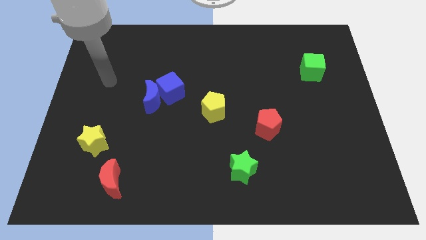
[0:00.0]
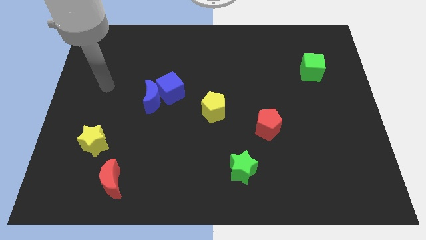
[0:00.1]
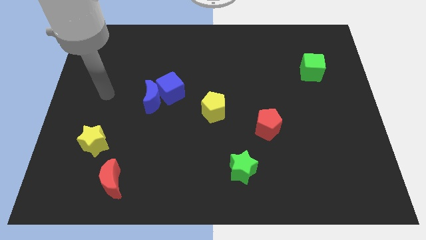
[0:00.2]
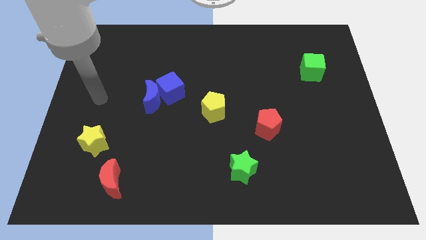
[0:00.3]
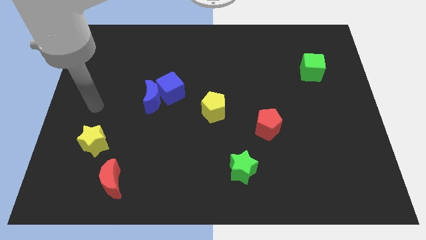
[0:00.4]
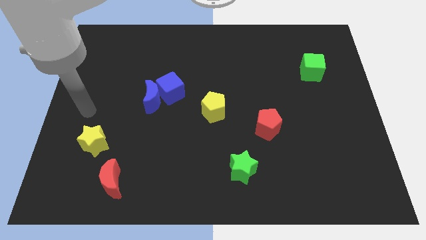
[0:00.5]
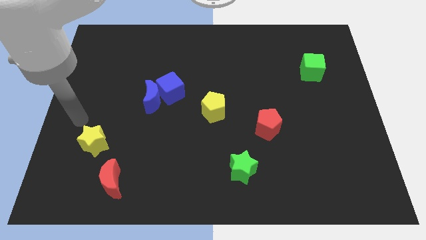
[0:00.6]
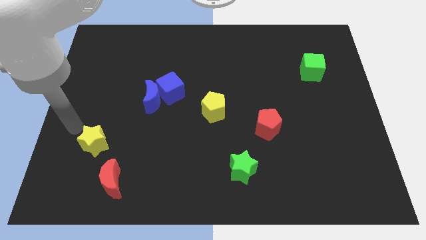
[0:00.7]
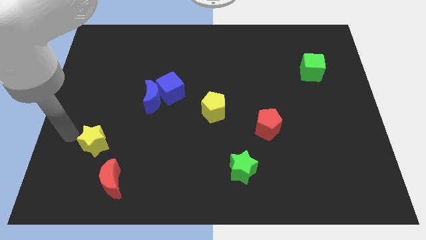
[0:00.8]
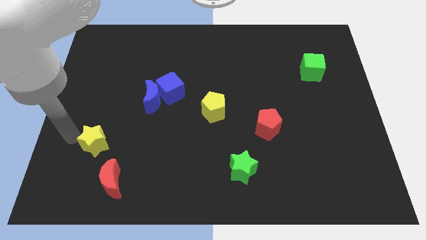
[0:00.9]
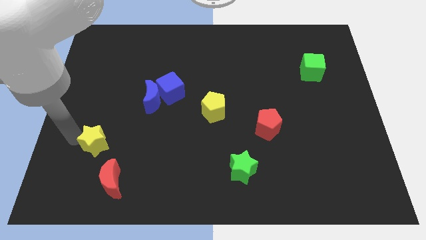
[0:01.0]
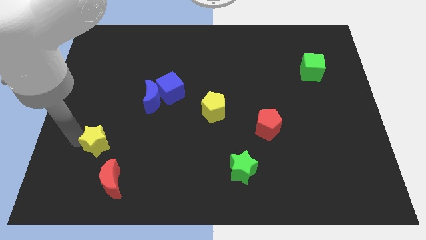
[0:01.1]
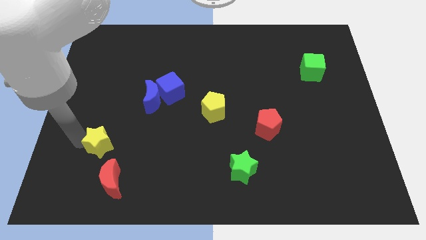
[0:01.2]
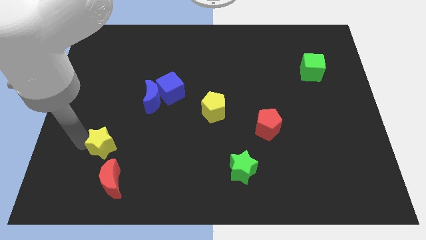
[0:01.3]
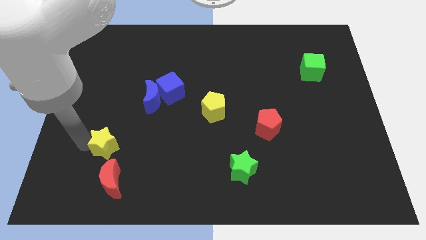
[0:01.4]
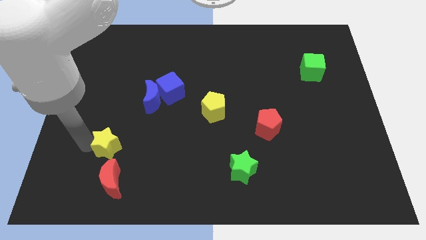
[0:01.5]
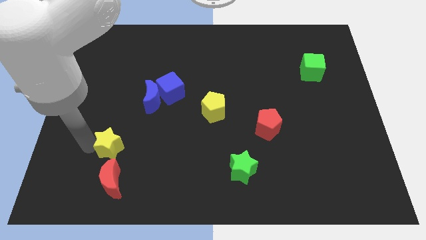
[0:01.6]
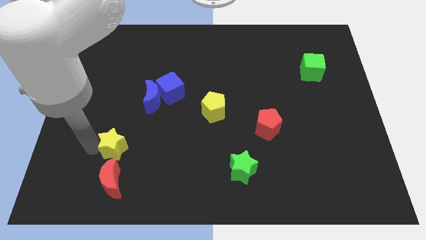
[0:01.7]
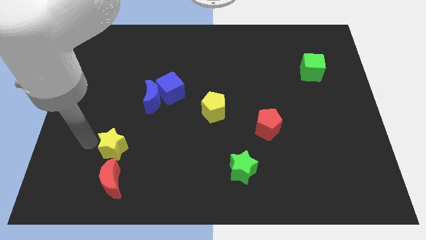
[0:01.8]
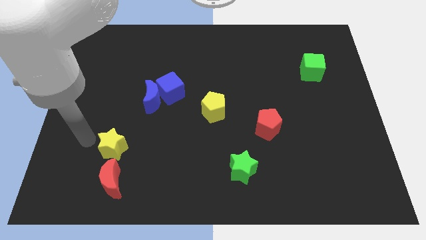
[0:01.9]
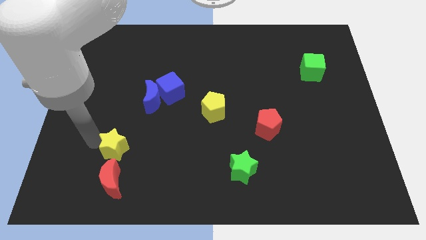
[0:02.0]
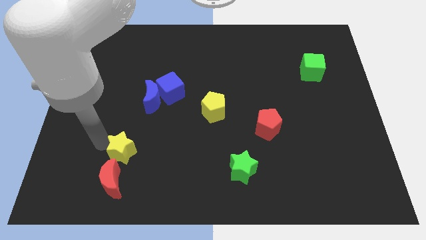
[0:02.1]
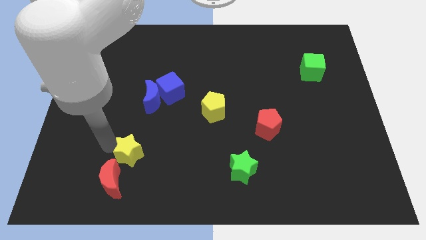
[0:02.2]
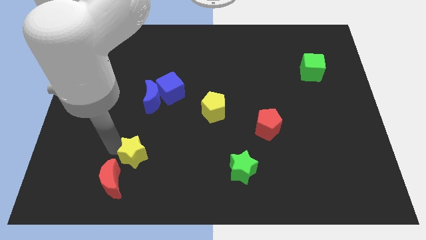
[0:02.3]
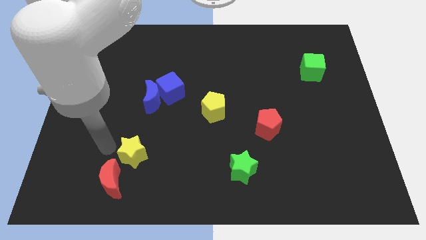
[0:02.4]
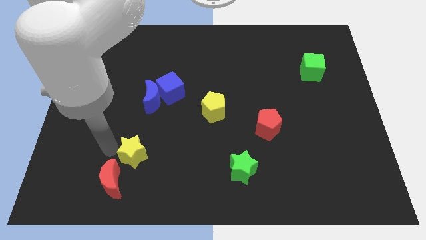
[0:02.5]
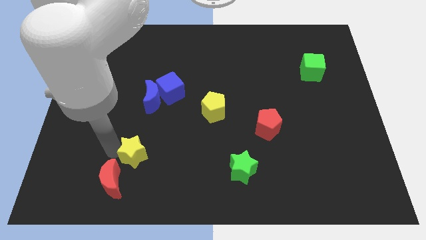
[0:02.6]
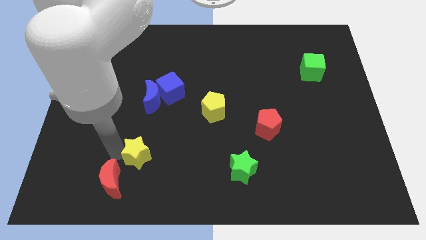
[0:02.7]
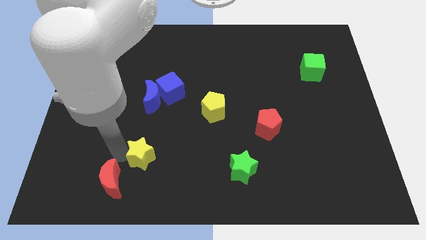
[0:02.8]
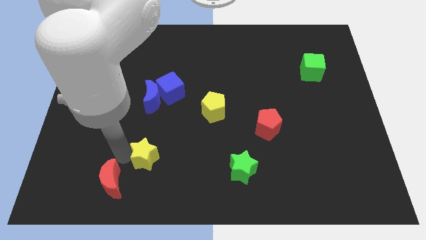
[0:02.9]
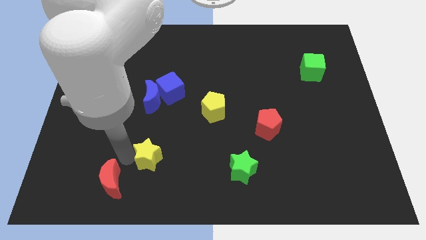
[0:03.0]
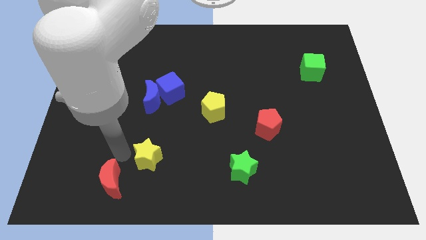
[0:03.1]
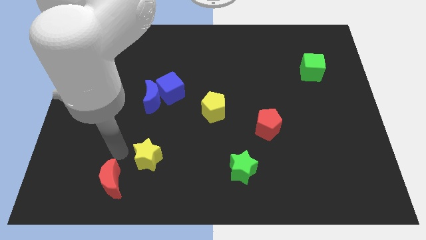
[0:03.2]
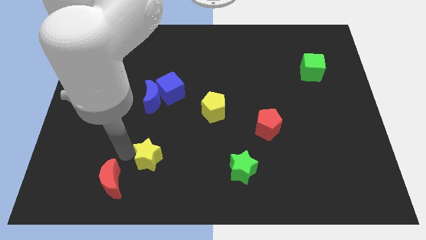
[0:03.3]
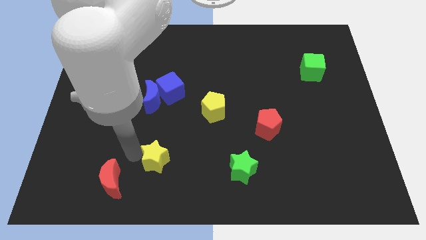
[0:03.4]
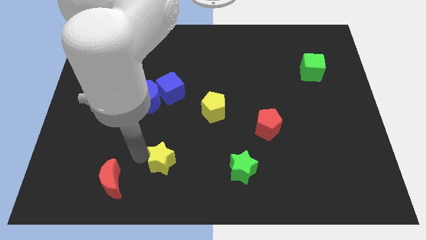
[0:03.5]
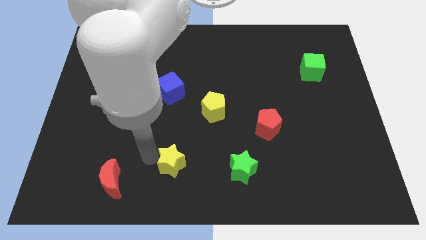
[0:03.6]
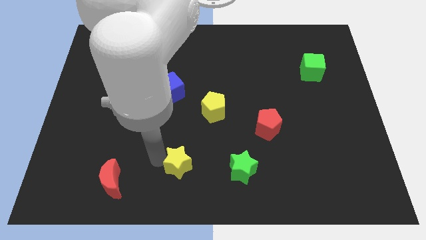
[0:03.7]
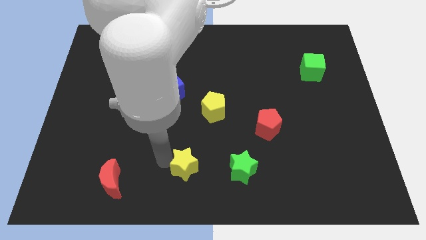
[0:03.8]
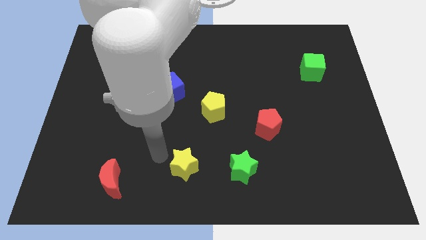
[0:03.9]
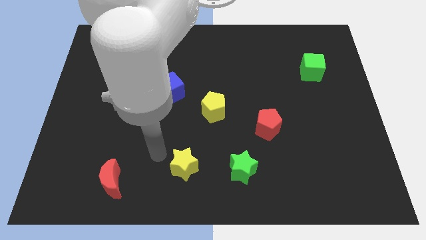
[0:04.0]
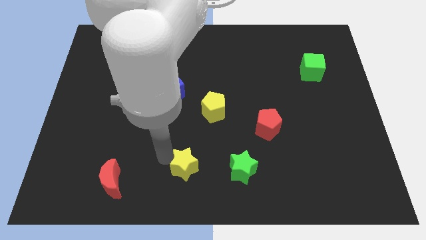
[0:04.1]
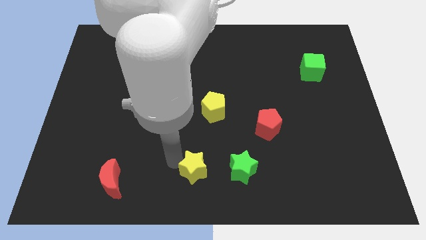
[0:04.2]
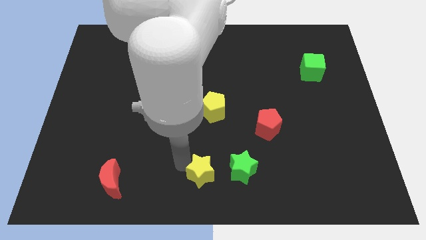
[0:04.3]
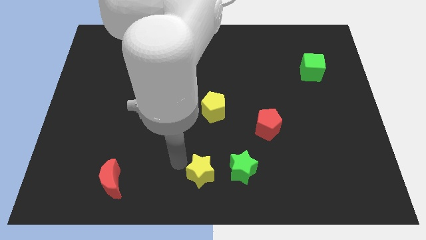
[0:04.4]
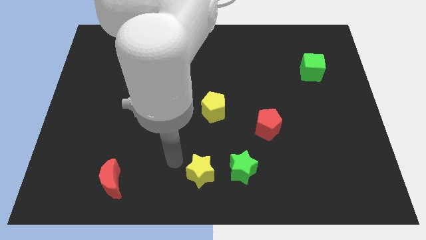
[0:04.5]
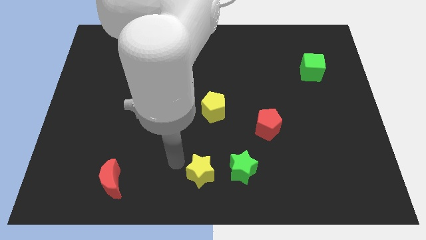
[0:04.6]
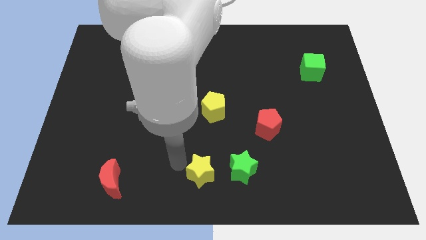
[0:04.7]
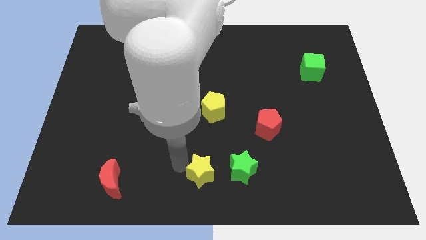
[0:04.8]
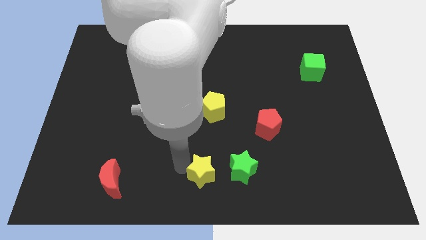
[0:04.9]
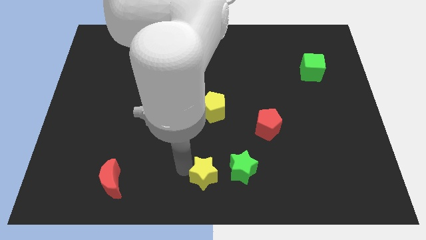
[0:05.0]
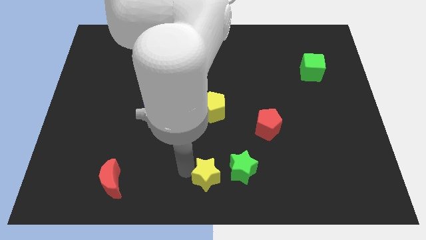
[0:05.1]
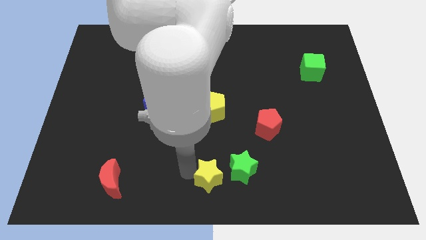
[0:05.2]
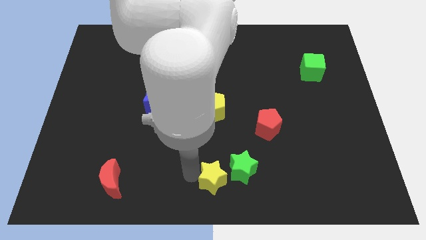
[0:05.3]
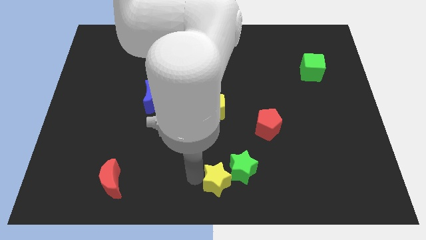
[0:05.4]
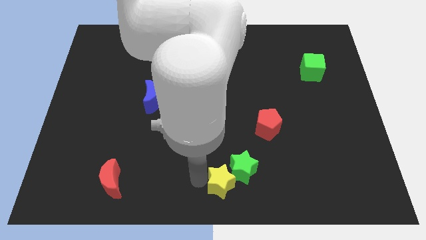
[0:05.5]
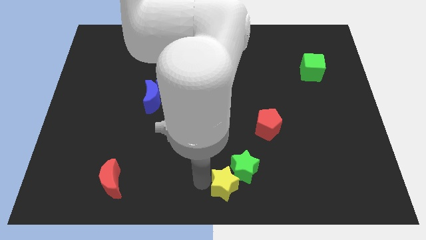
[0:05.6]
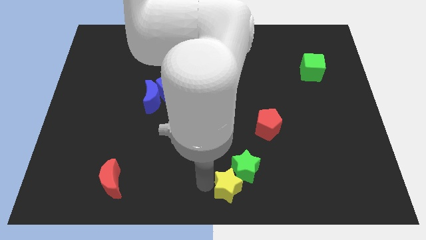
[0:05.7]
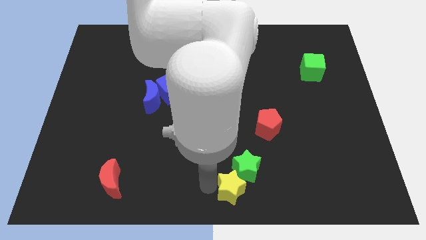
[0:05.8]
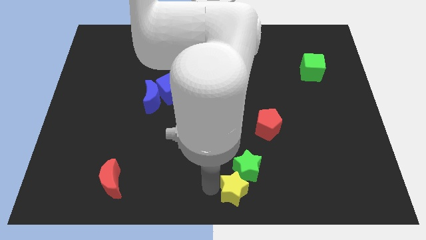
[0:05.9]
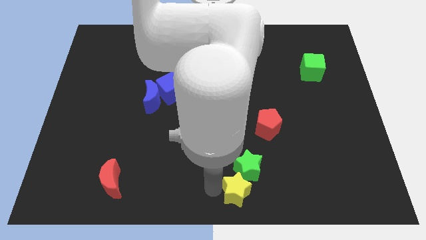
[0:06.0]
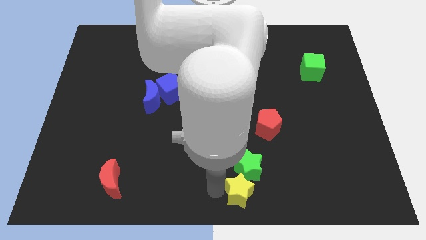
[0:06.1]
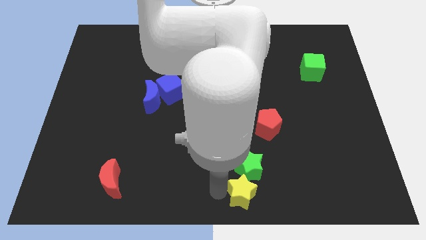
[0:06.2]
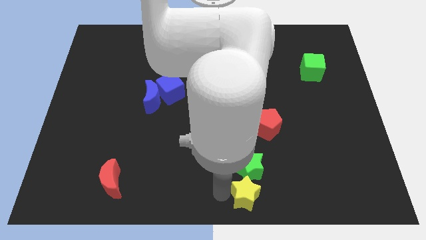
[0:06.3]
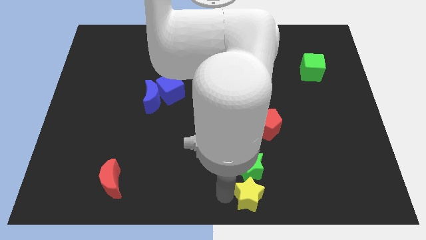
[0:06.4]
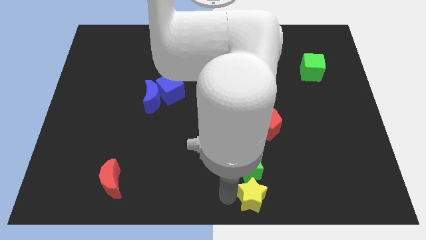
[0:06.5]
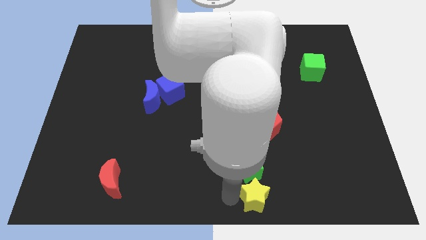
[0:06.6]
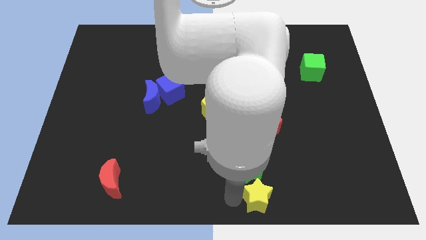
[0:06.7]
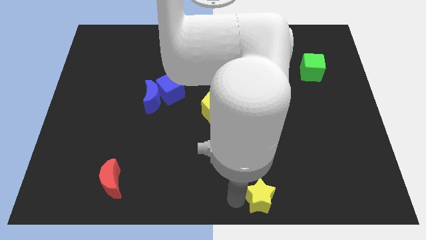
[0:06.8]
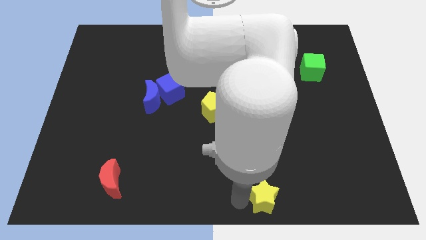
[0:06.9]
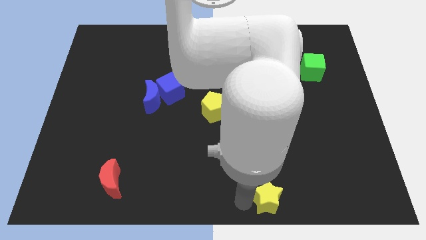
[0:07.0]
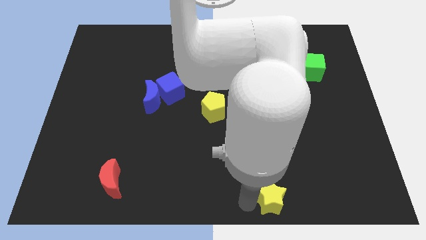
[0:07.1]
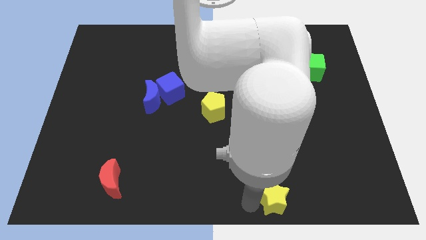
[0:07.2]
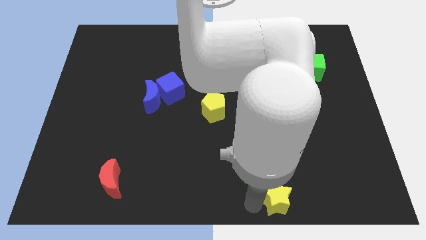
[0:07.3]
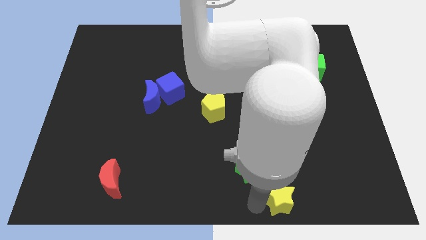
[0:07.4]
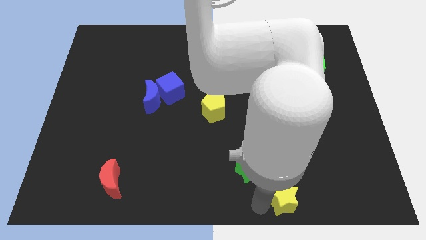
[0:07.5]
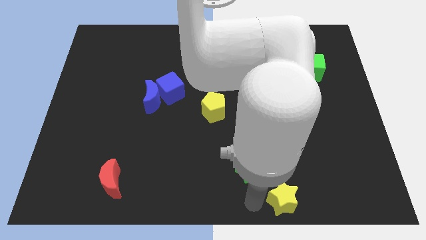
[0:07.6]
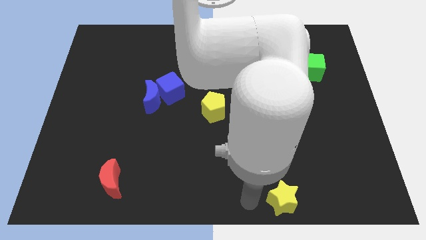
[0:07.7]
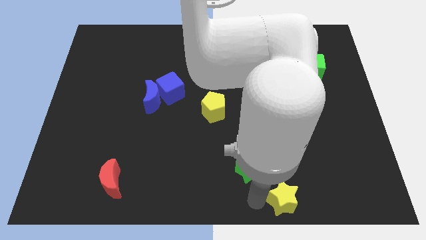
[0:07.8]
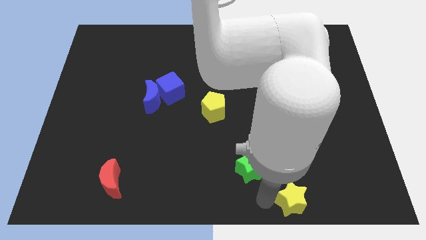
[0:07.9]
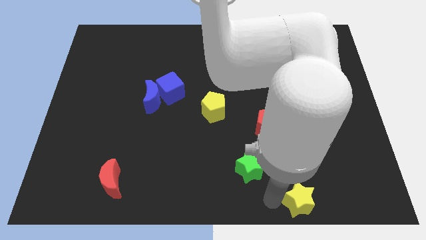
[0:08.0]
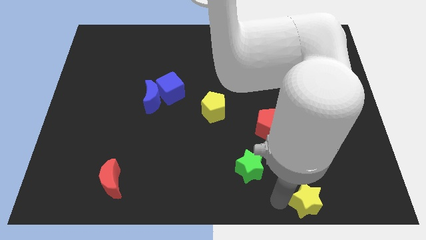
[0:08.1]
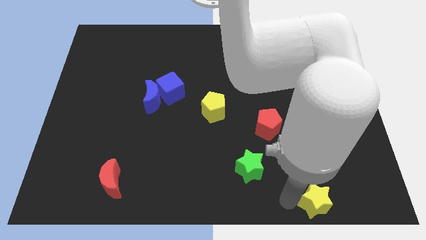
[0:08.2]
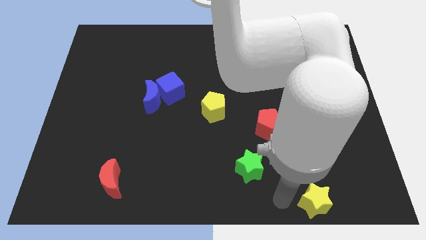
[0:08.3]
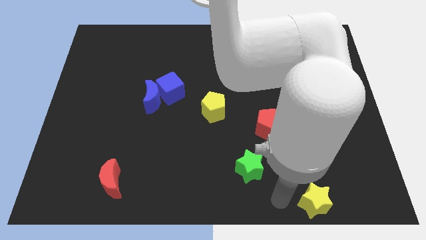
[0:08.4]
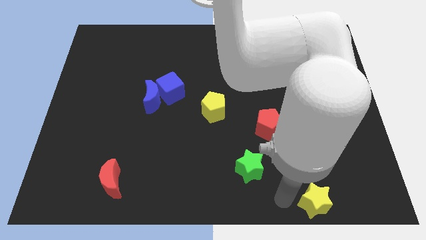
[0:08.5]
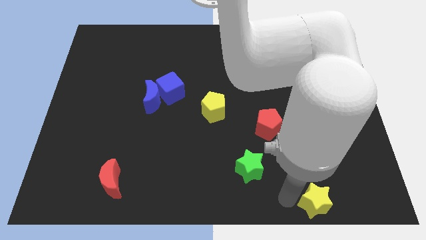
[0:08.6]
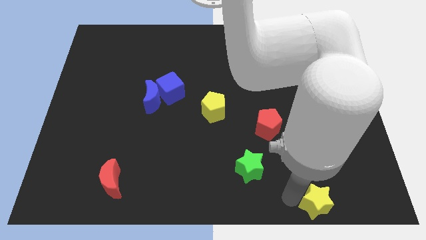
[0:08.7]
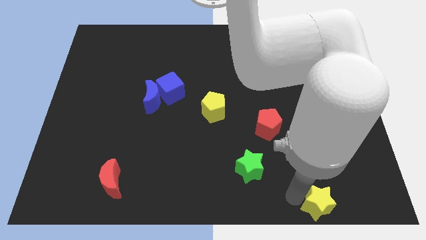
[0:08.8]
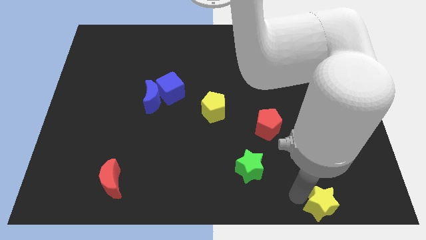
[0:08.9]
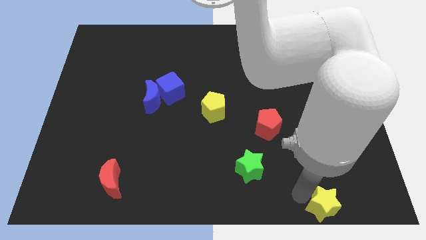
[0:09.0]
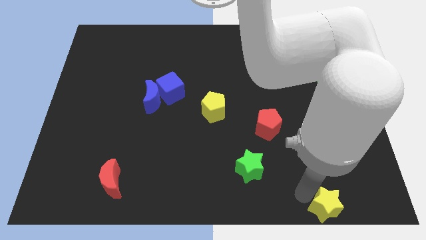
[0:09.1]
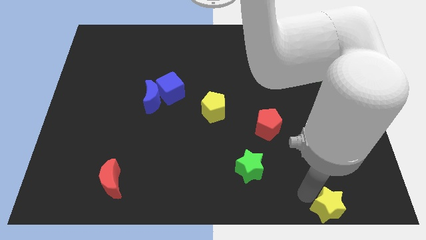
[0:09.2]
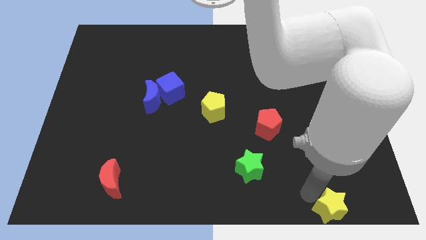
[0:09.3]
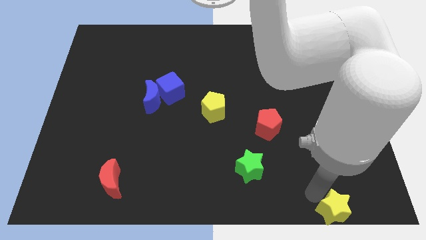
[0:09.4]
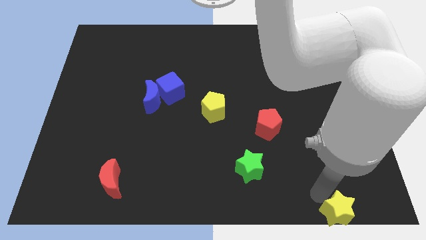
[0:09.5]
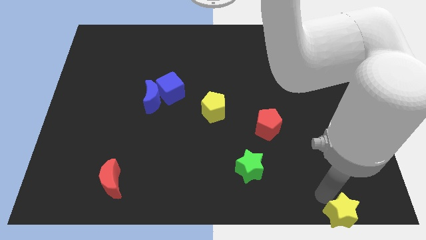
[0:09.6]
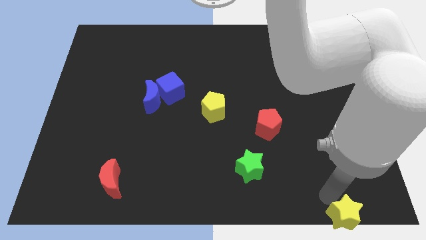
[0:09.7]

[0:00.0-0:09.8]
push the yellow star to the lower right corner
